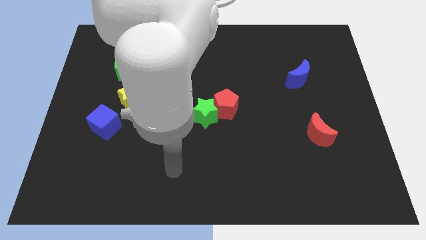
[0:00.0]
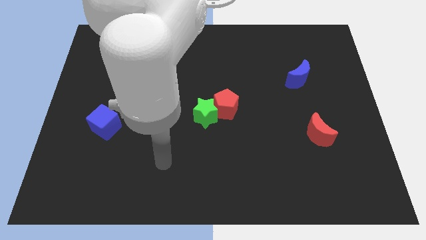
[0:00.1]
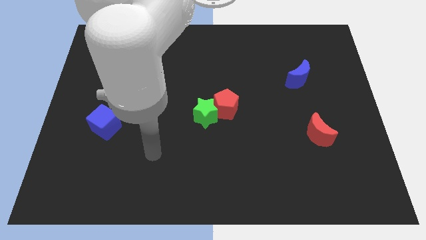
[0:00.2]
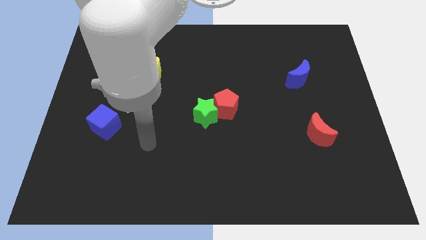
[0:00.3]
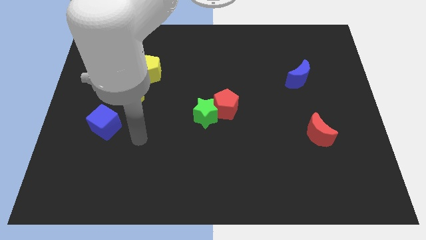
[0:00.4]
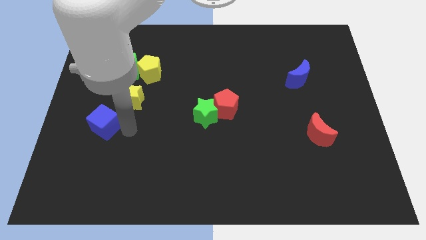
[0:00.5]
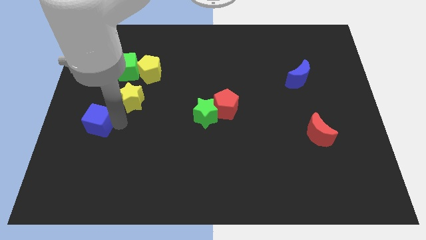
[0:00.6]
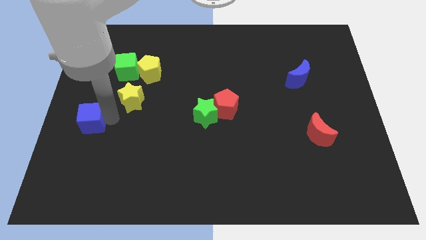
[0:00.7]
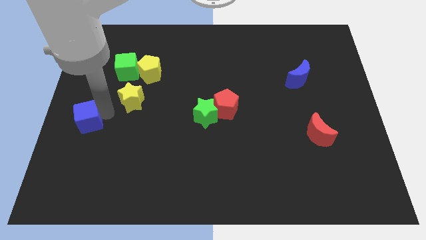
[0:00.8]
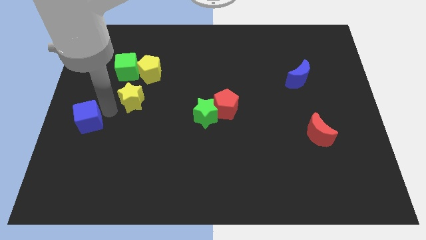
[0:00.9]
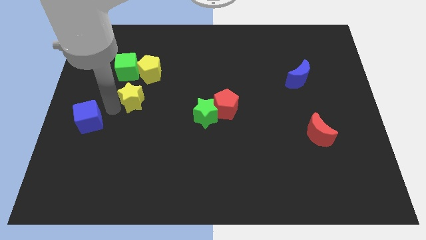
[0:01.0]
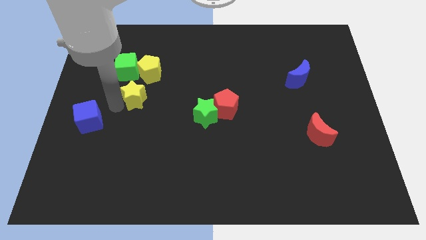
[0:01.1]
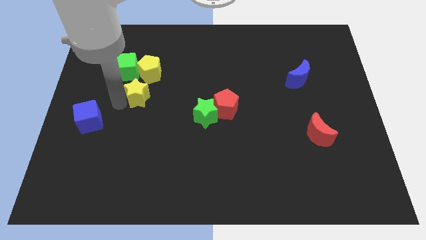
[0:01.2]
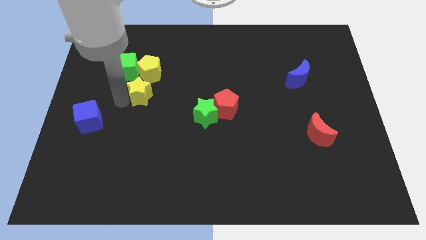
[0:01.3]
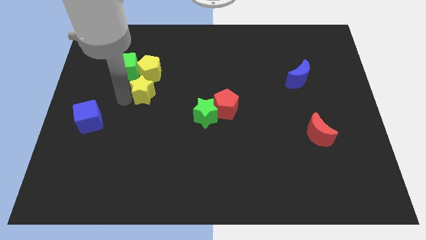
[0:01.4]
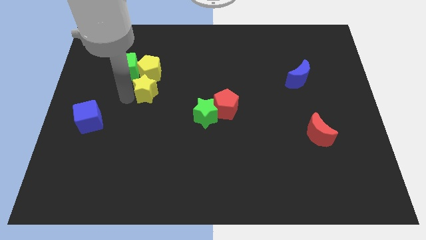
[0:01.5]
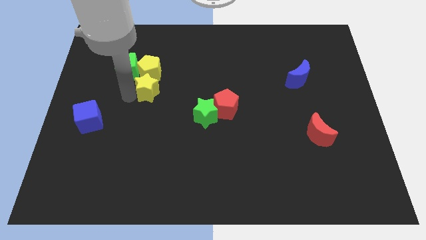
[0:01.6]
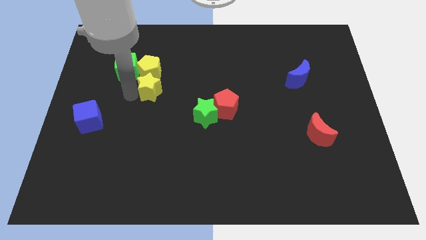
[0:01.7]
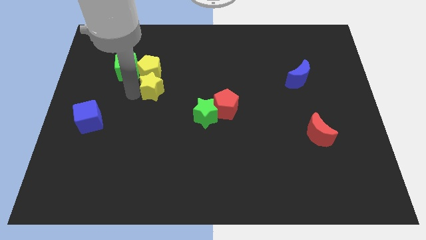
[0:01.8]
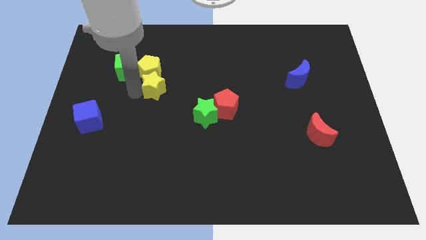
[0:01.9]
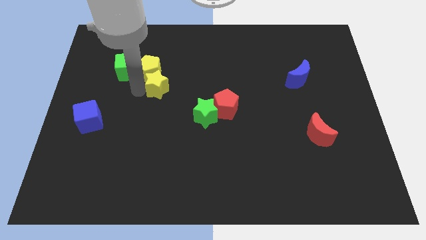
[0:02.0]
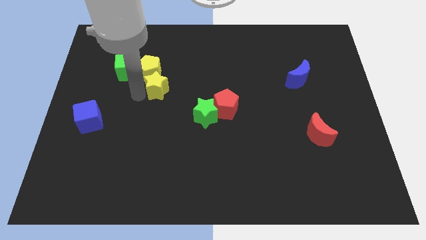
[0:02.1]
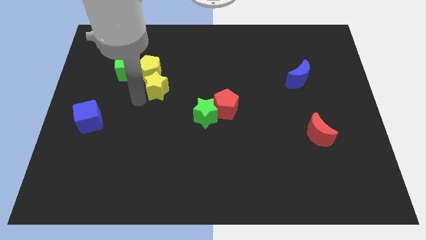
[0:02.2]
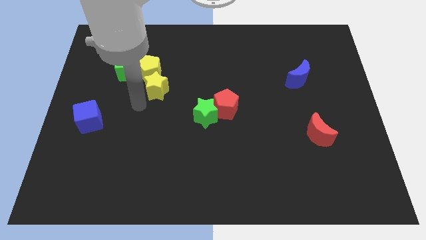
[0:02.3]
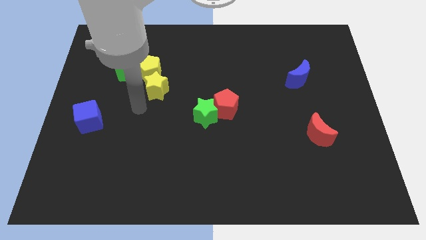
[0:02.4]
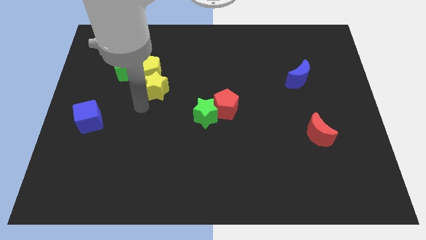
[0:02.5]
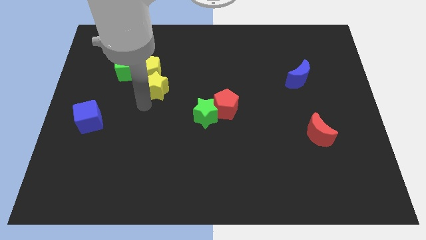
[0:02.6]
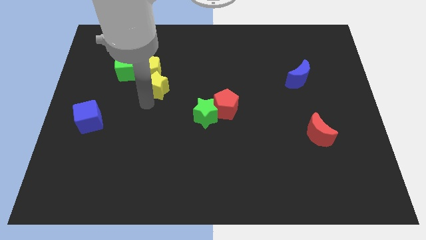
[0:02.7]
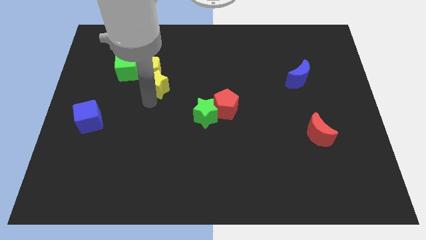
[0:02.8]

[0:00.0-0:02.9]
slide the yellow star a little up and then to the right

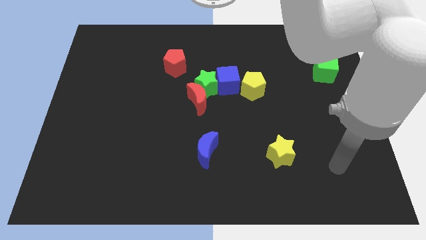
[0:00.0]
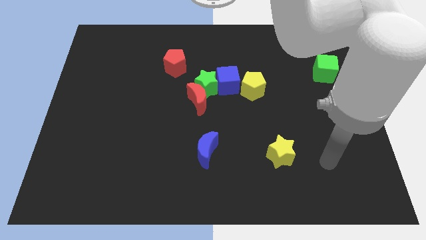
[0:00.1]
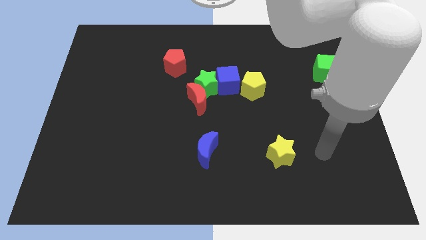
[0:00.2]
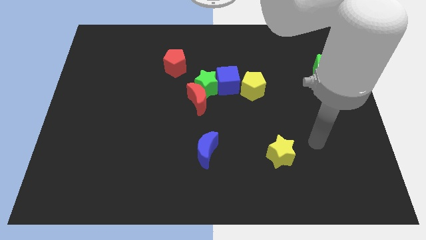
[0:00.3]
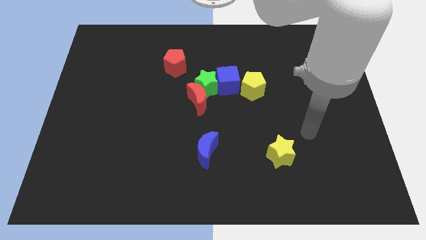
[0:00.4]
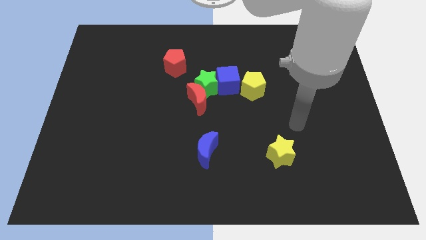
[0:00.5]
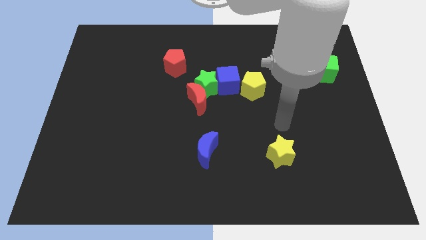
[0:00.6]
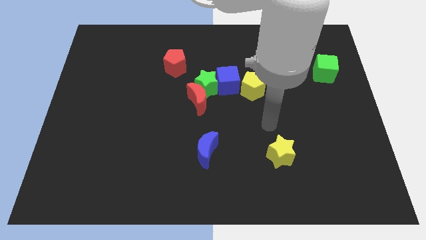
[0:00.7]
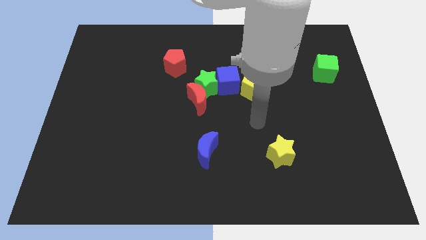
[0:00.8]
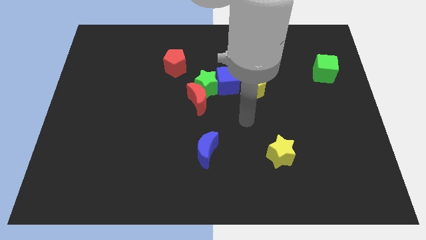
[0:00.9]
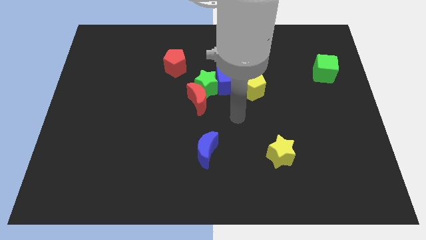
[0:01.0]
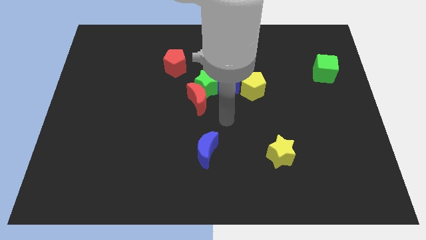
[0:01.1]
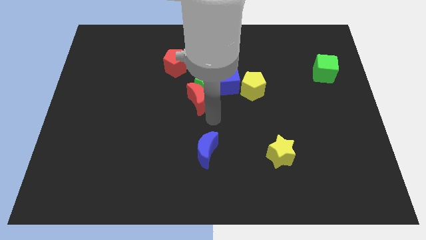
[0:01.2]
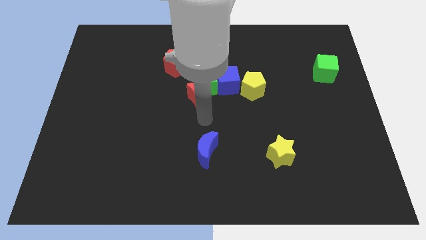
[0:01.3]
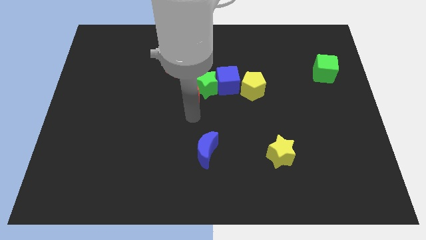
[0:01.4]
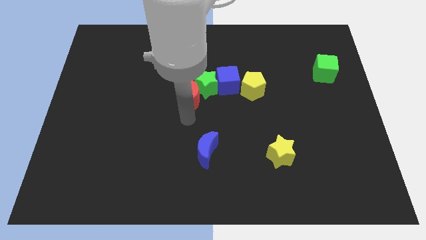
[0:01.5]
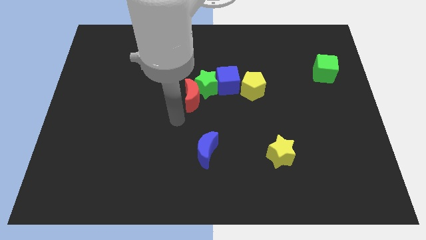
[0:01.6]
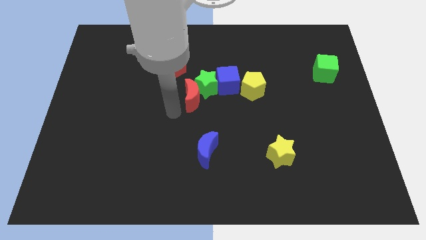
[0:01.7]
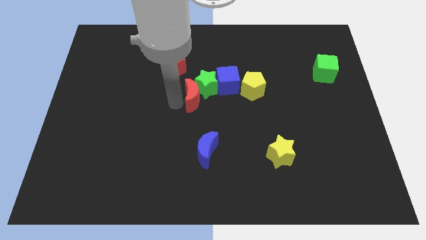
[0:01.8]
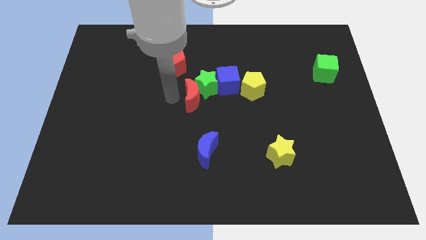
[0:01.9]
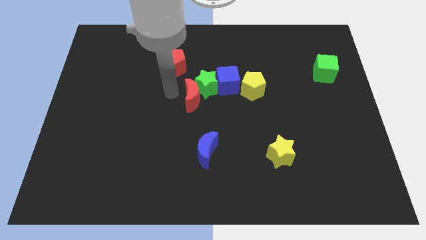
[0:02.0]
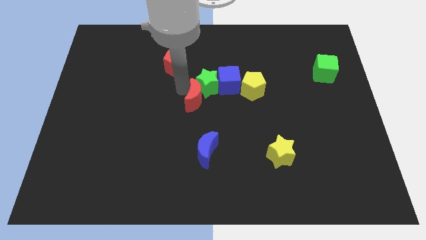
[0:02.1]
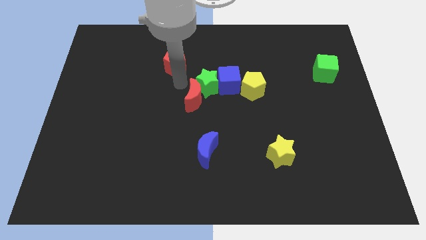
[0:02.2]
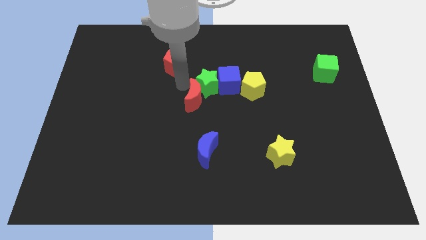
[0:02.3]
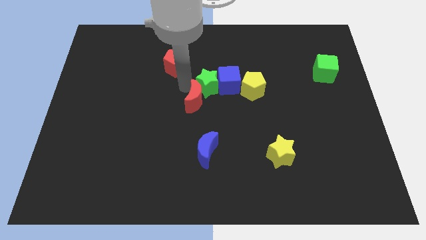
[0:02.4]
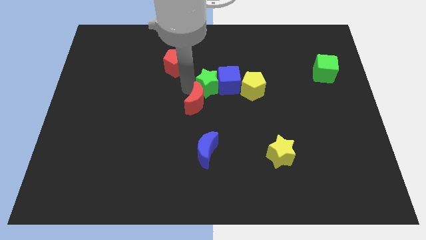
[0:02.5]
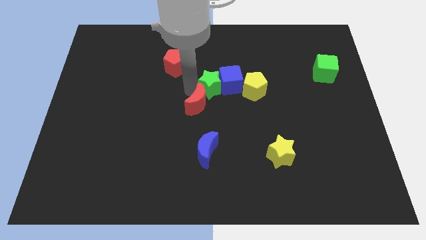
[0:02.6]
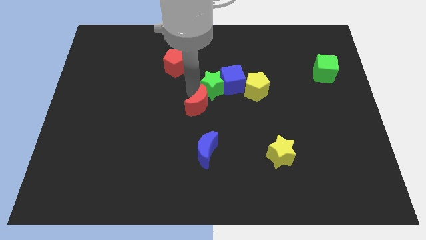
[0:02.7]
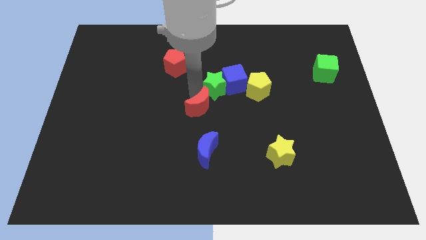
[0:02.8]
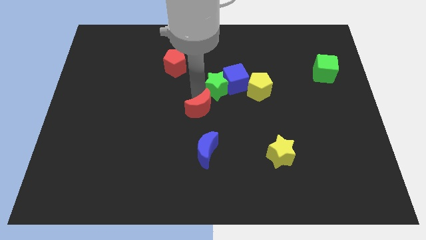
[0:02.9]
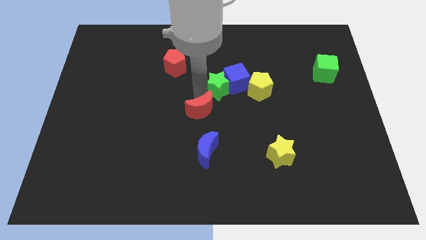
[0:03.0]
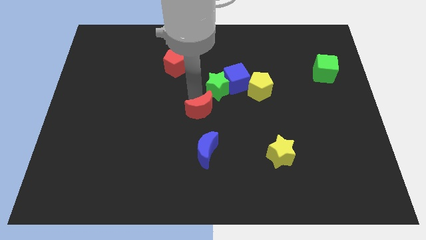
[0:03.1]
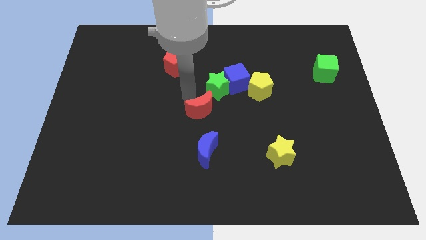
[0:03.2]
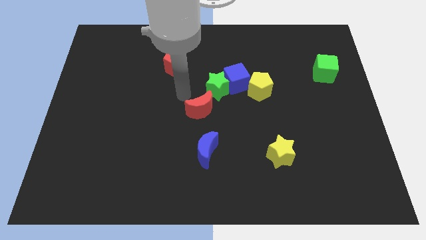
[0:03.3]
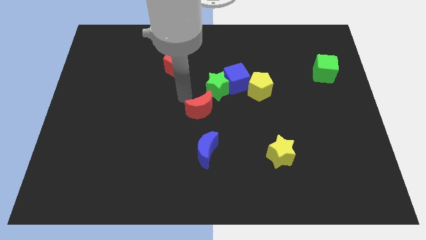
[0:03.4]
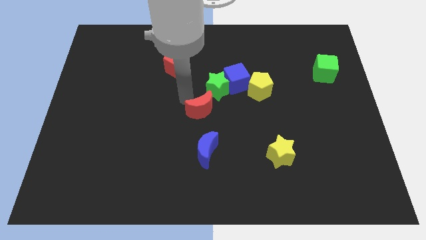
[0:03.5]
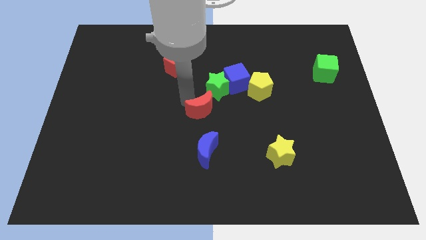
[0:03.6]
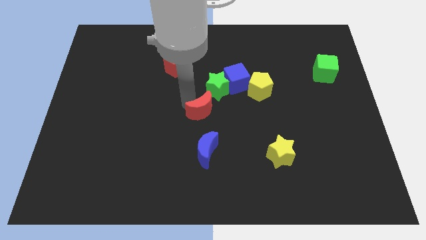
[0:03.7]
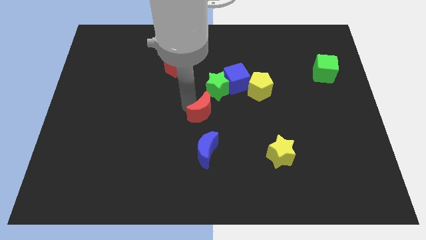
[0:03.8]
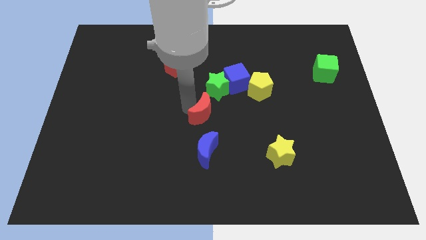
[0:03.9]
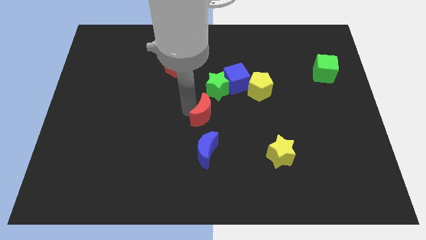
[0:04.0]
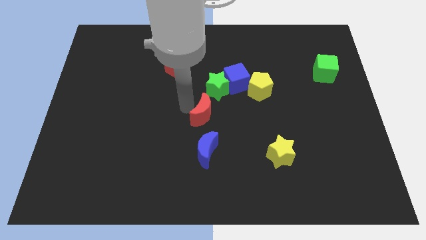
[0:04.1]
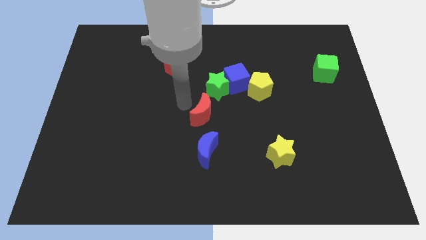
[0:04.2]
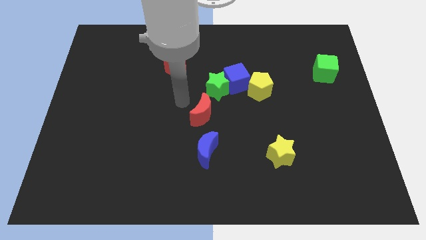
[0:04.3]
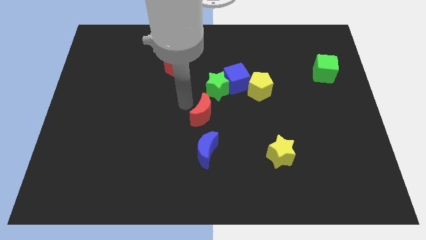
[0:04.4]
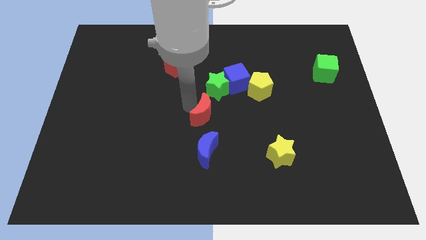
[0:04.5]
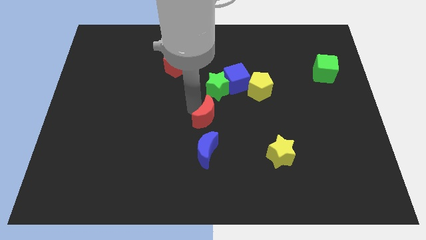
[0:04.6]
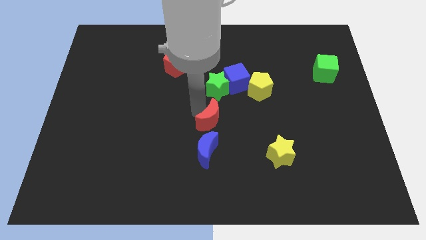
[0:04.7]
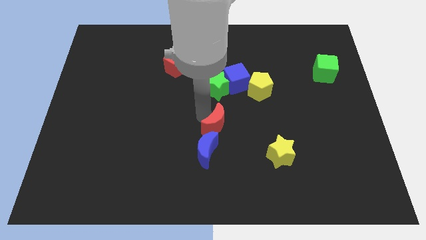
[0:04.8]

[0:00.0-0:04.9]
move the red moon downwards and to the right diagonally a little bit
